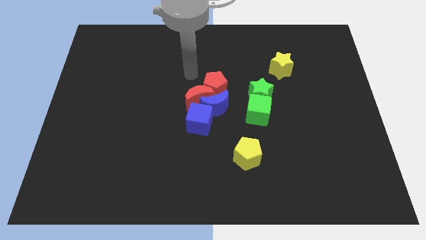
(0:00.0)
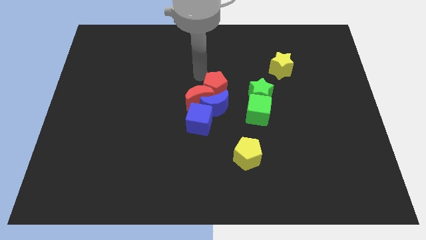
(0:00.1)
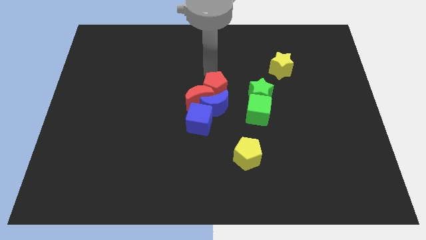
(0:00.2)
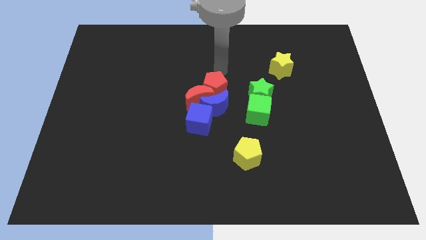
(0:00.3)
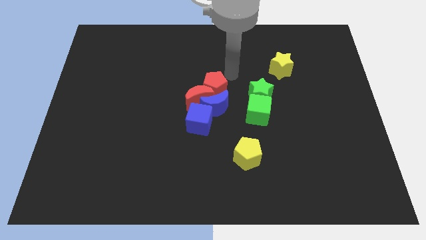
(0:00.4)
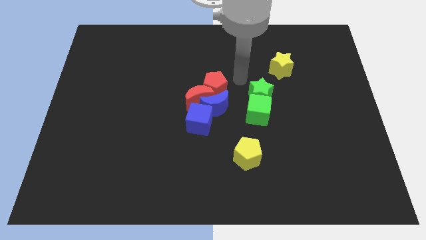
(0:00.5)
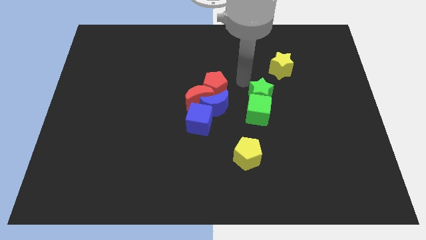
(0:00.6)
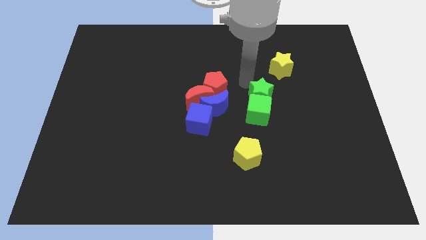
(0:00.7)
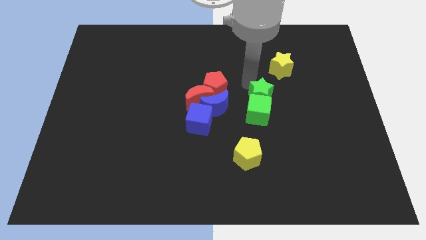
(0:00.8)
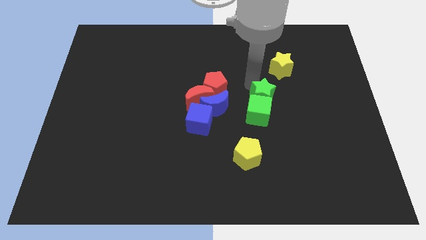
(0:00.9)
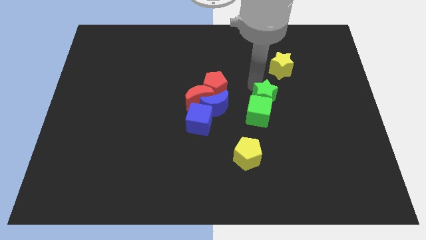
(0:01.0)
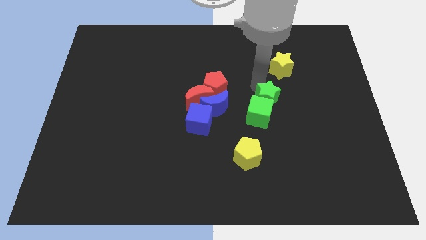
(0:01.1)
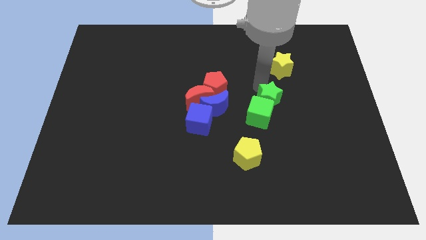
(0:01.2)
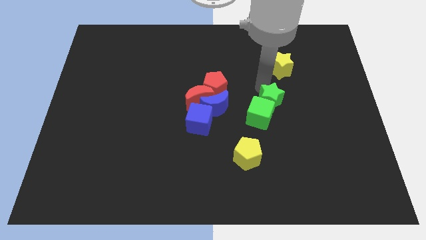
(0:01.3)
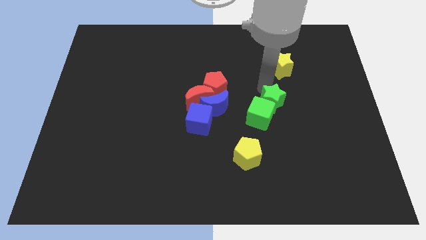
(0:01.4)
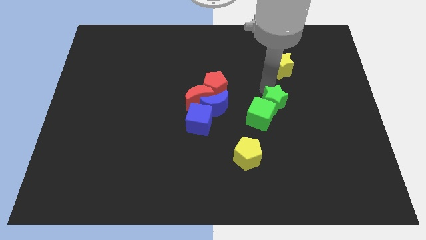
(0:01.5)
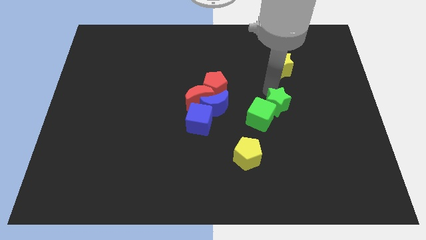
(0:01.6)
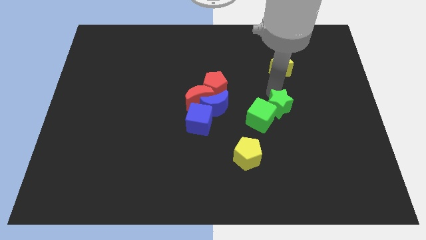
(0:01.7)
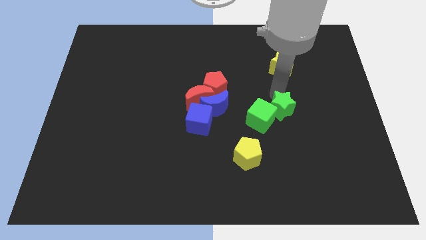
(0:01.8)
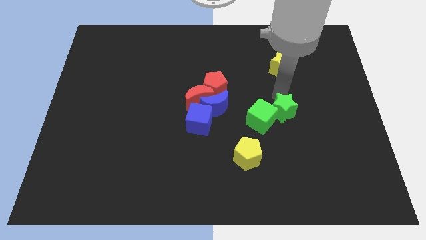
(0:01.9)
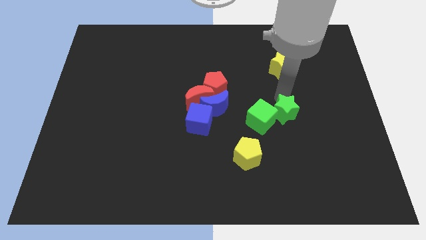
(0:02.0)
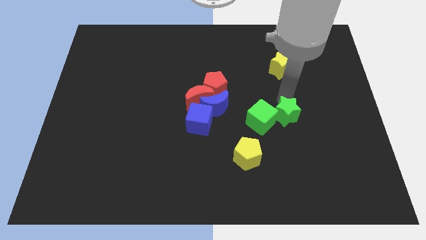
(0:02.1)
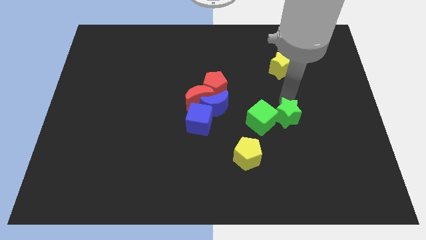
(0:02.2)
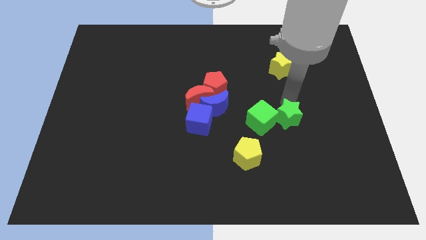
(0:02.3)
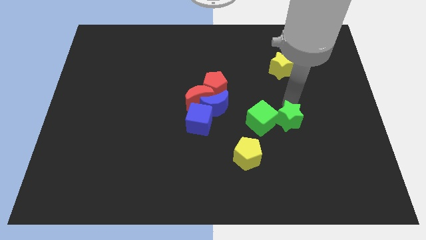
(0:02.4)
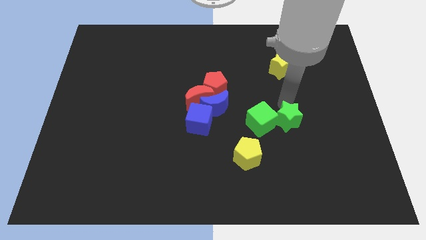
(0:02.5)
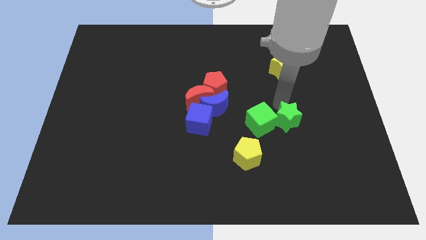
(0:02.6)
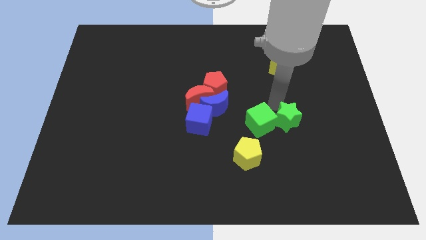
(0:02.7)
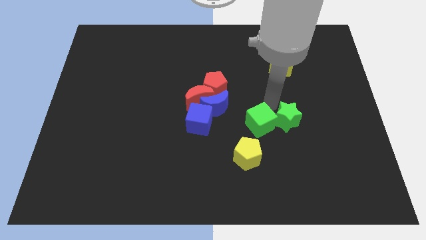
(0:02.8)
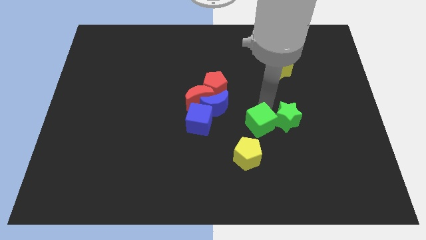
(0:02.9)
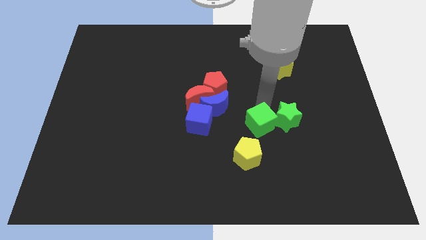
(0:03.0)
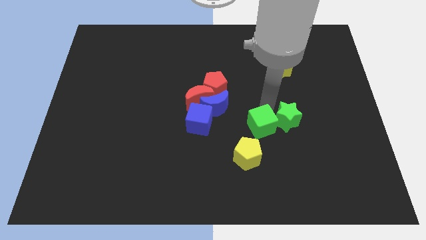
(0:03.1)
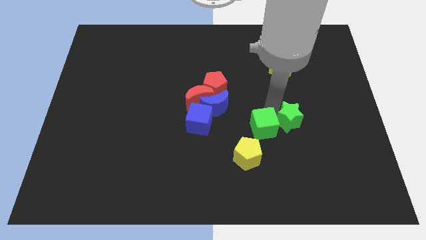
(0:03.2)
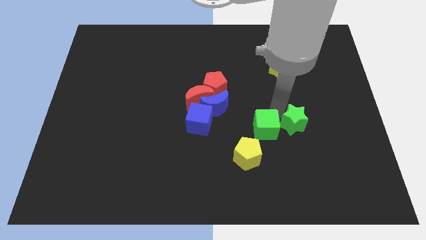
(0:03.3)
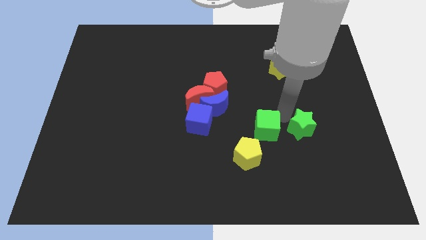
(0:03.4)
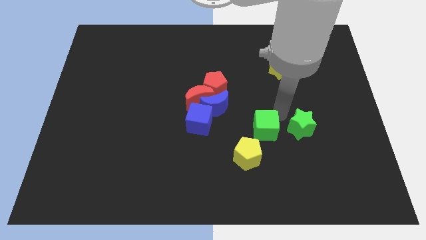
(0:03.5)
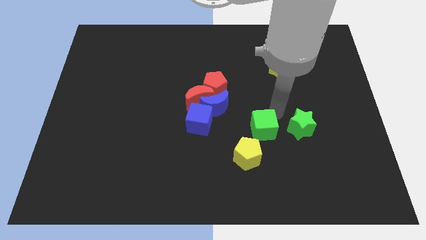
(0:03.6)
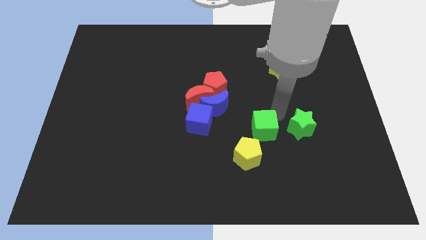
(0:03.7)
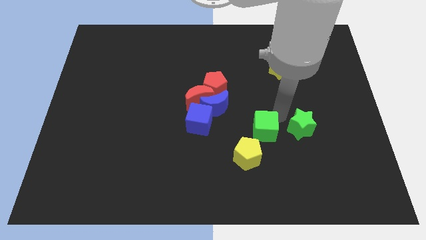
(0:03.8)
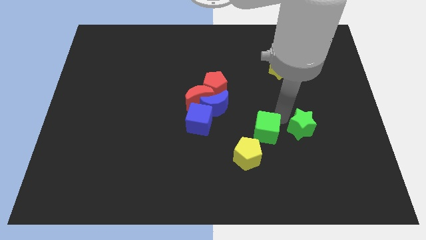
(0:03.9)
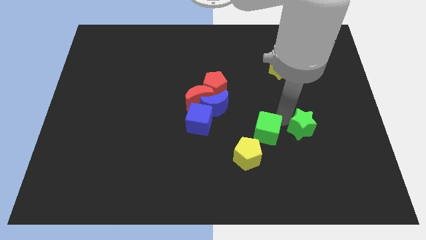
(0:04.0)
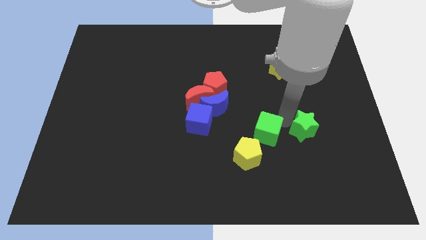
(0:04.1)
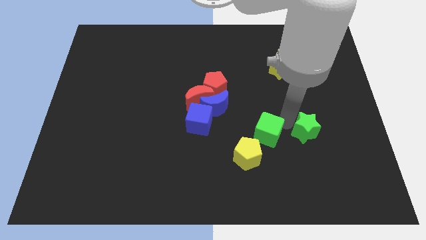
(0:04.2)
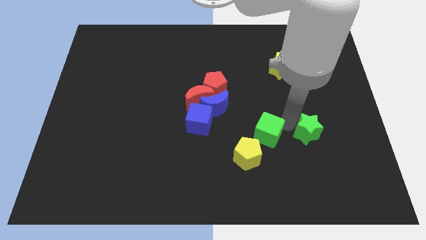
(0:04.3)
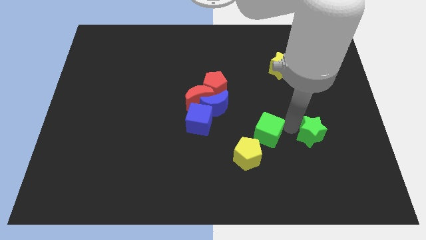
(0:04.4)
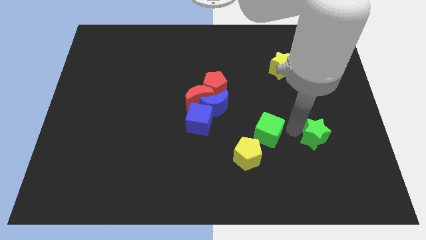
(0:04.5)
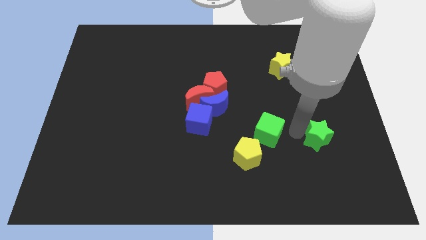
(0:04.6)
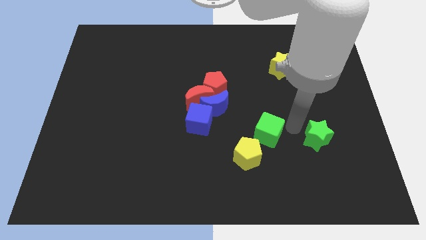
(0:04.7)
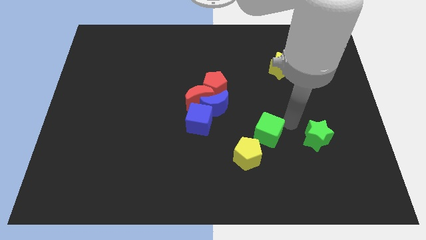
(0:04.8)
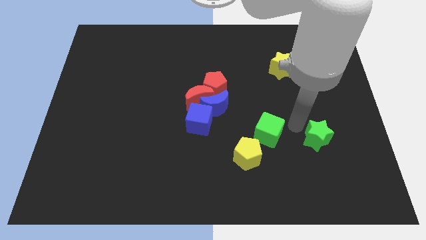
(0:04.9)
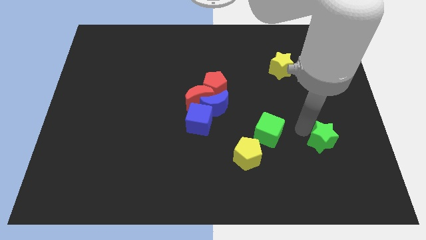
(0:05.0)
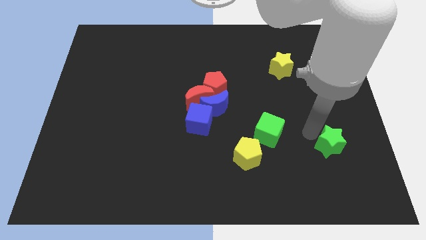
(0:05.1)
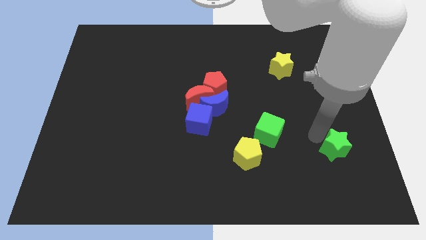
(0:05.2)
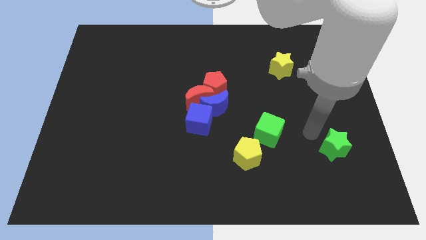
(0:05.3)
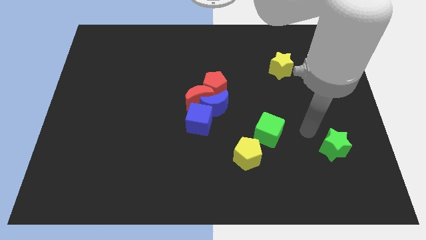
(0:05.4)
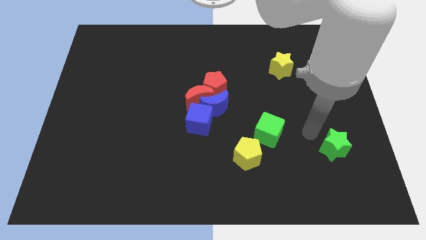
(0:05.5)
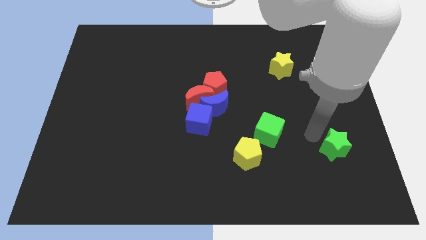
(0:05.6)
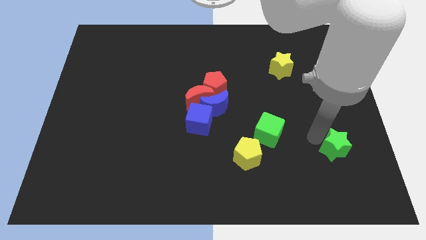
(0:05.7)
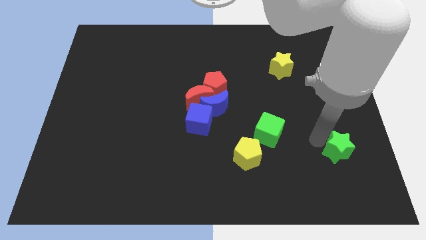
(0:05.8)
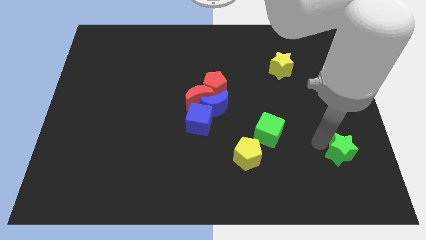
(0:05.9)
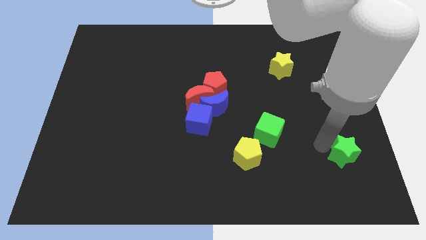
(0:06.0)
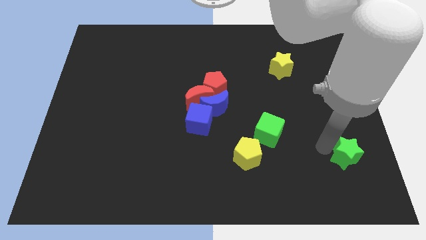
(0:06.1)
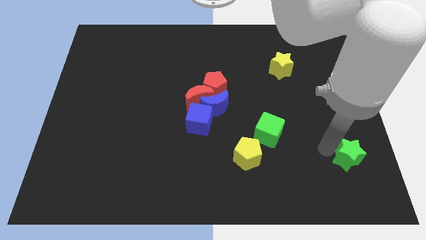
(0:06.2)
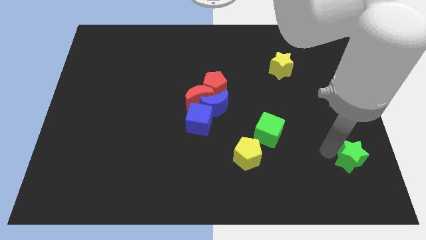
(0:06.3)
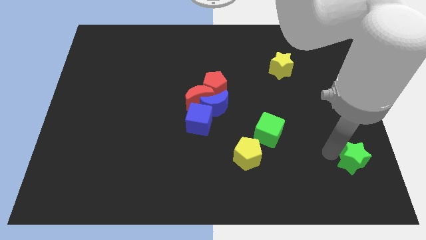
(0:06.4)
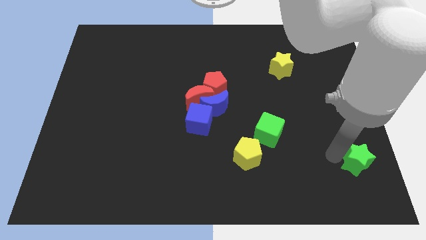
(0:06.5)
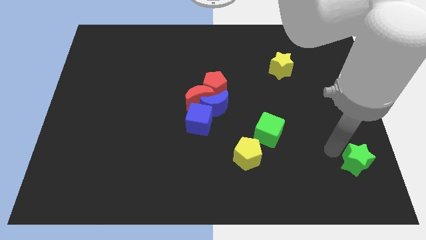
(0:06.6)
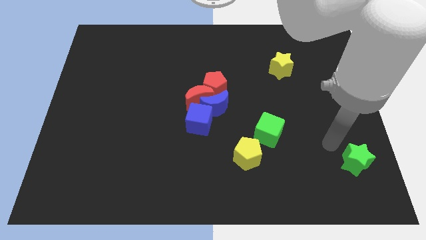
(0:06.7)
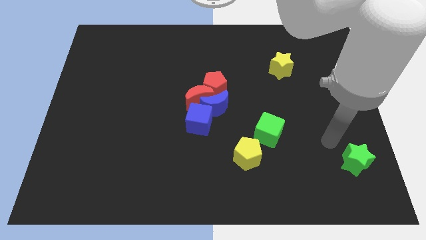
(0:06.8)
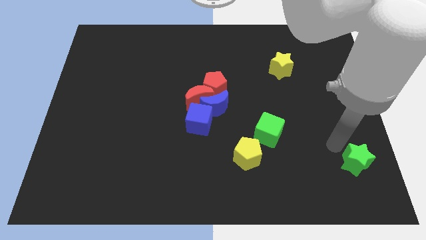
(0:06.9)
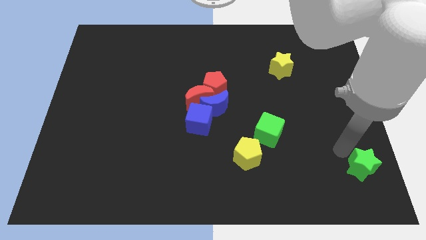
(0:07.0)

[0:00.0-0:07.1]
push the green star to the lower right corner
